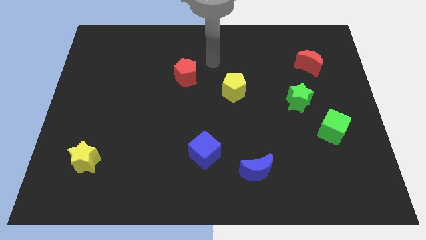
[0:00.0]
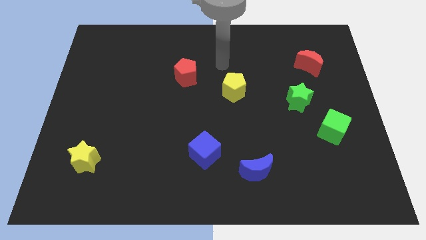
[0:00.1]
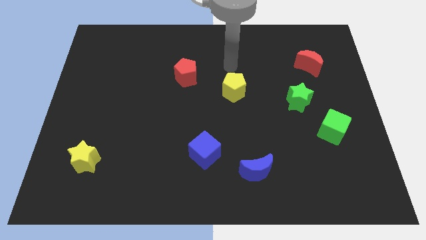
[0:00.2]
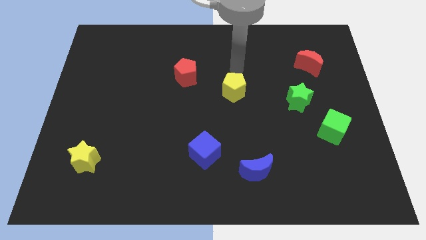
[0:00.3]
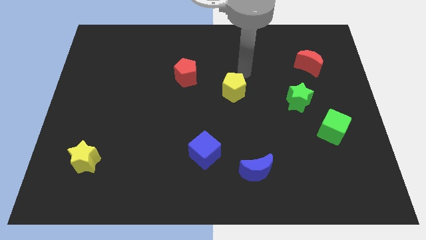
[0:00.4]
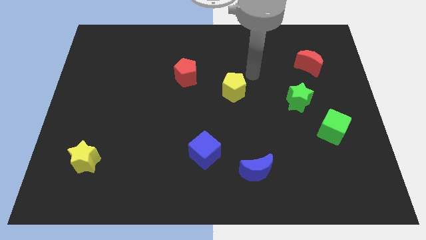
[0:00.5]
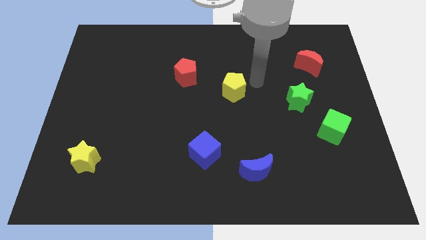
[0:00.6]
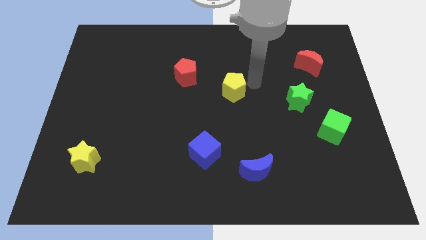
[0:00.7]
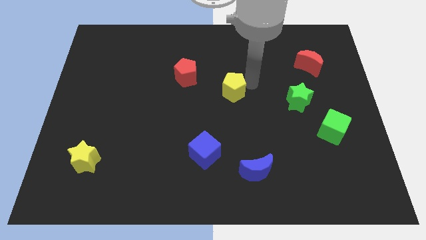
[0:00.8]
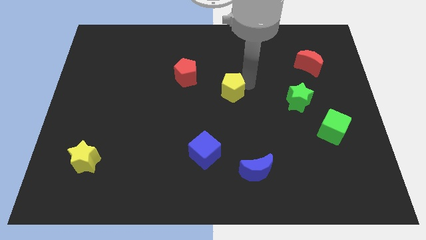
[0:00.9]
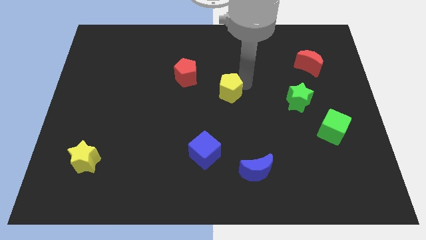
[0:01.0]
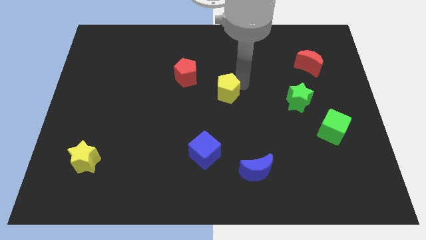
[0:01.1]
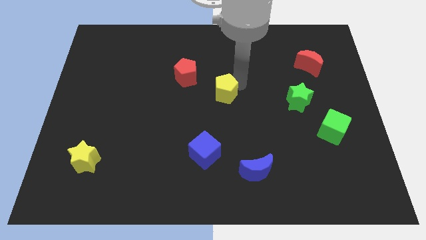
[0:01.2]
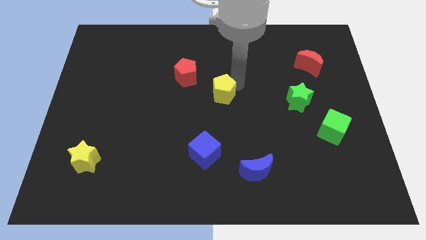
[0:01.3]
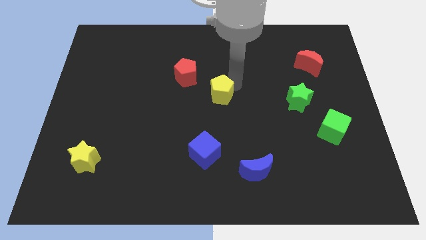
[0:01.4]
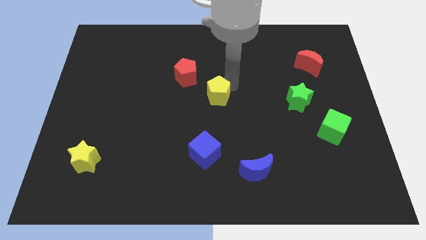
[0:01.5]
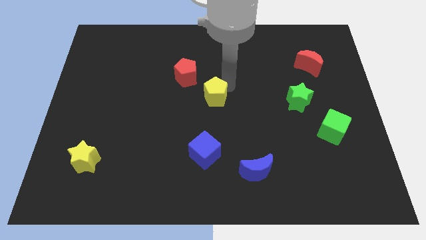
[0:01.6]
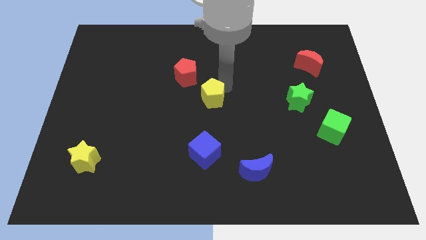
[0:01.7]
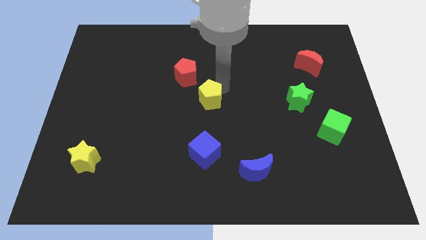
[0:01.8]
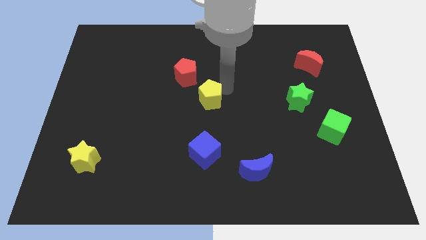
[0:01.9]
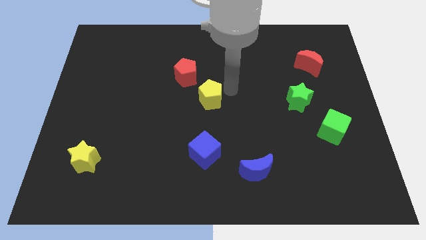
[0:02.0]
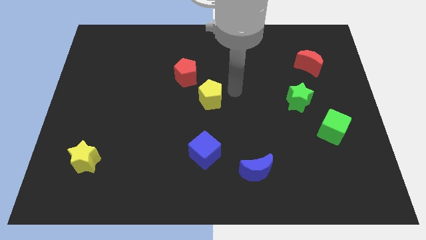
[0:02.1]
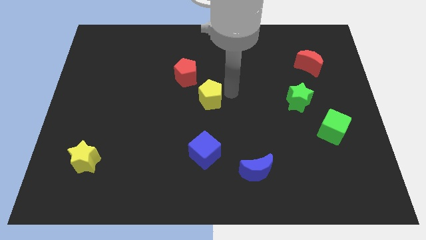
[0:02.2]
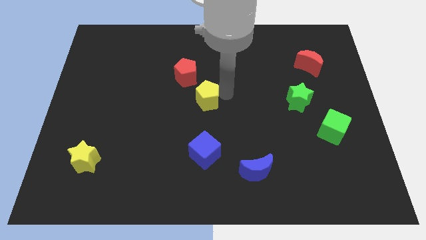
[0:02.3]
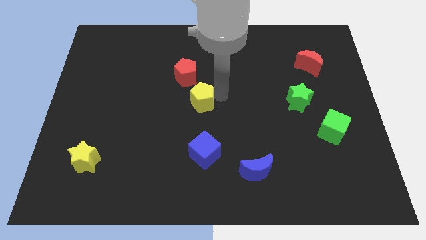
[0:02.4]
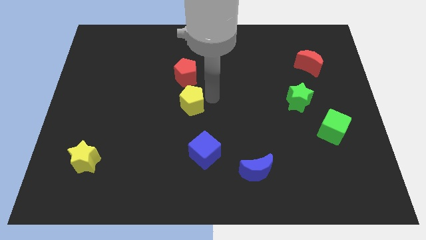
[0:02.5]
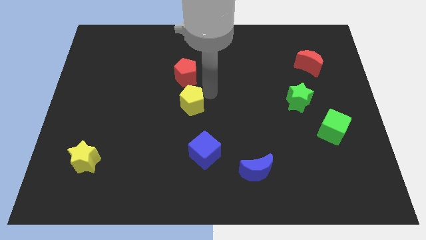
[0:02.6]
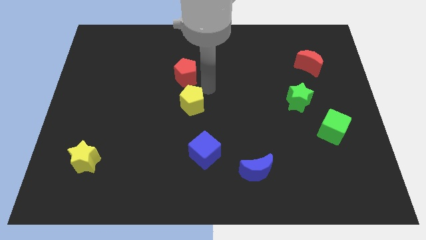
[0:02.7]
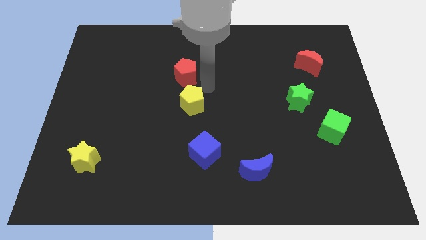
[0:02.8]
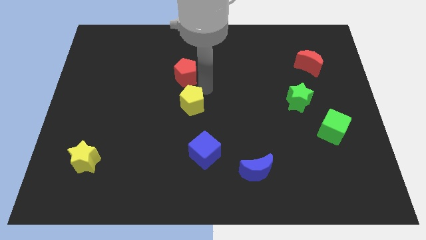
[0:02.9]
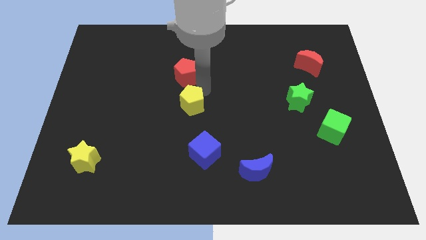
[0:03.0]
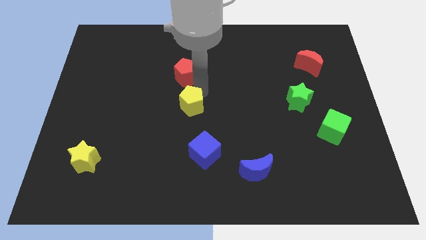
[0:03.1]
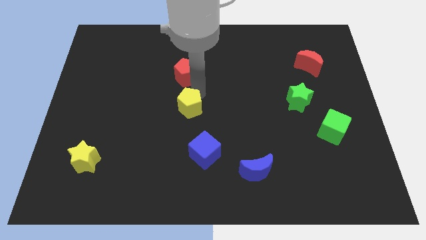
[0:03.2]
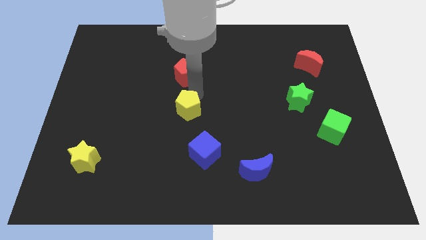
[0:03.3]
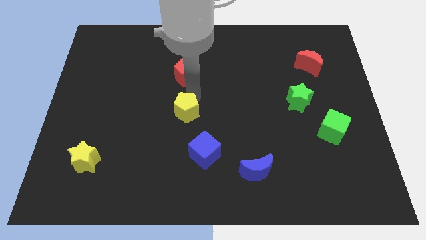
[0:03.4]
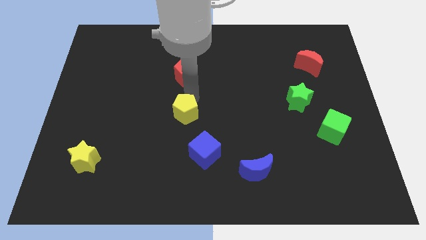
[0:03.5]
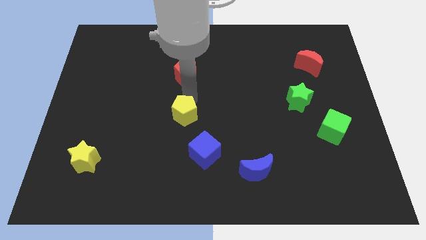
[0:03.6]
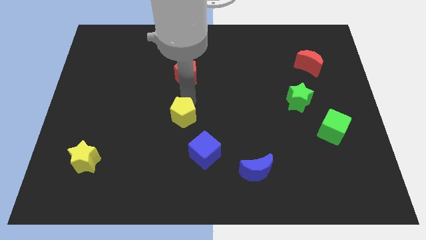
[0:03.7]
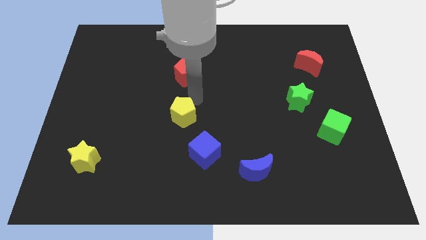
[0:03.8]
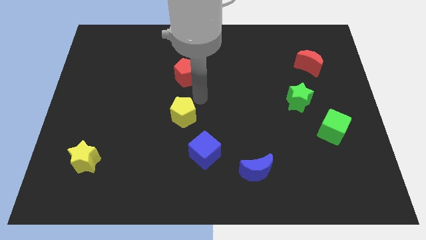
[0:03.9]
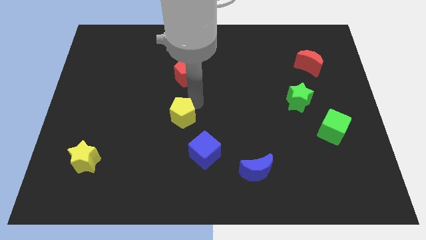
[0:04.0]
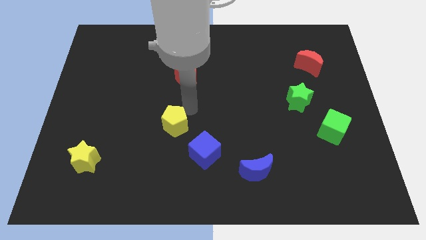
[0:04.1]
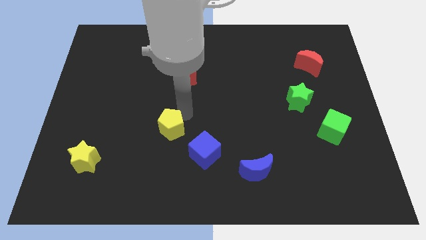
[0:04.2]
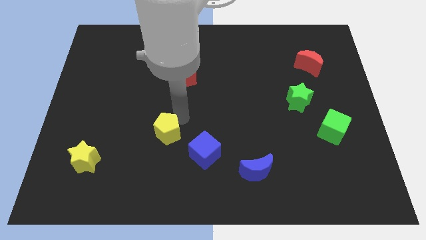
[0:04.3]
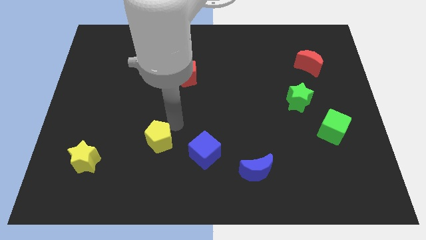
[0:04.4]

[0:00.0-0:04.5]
push the yellow pentagon downwards and left diagonally

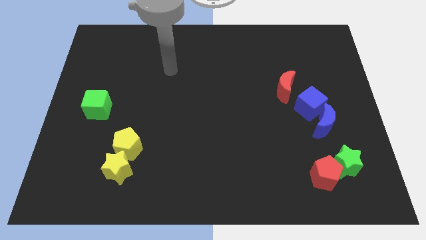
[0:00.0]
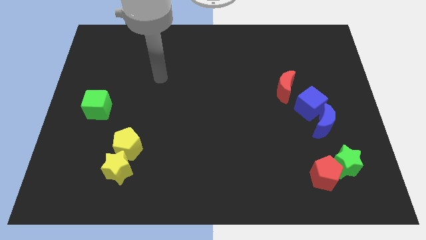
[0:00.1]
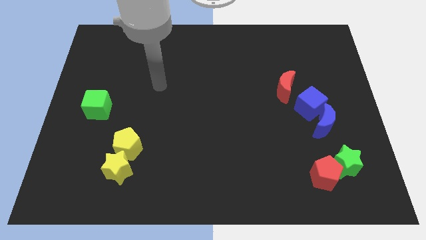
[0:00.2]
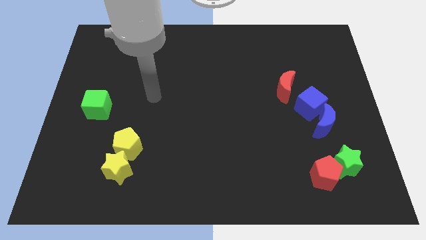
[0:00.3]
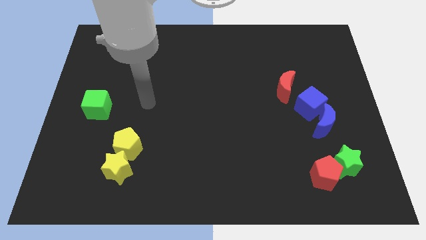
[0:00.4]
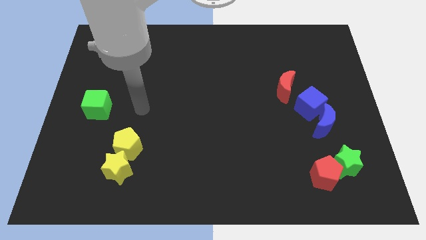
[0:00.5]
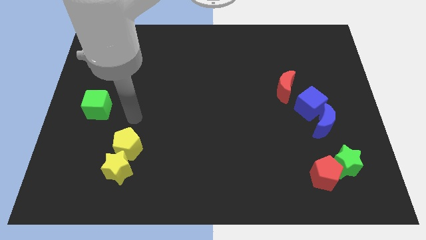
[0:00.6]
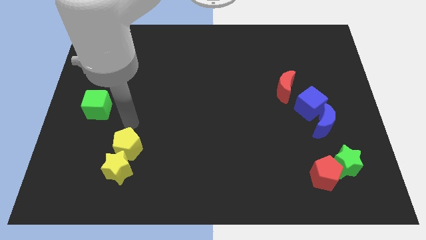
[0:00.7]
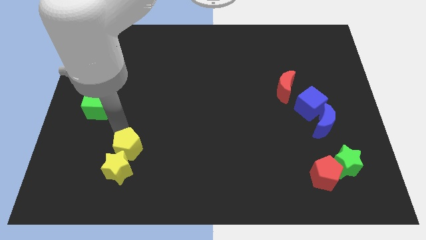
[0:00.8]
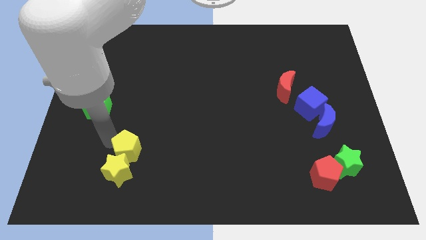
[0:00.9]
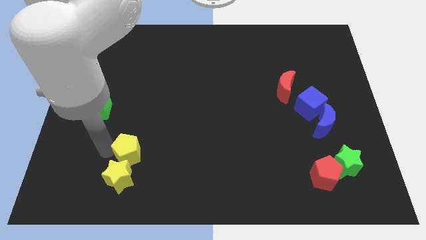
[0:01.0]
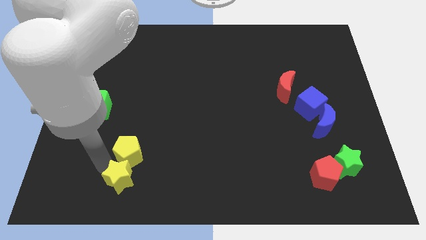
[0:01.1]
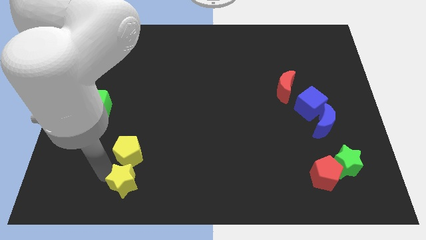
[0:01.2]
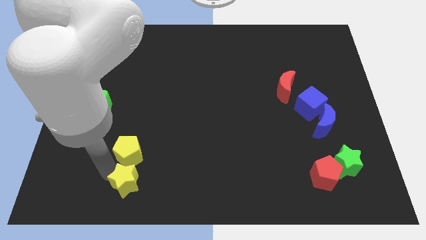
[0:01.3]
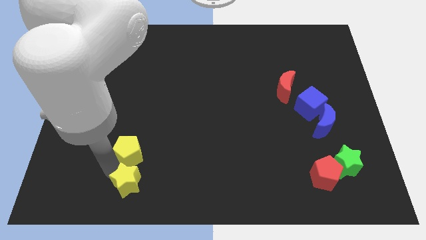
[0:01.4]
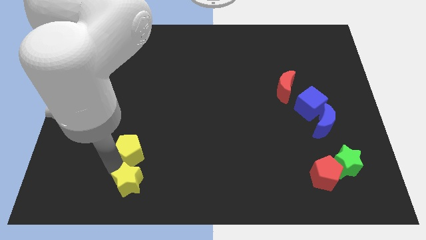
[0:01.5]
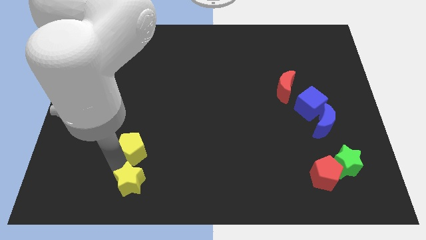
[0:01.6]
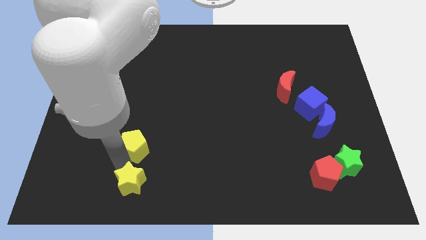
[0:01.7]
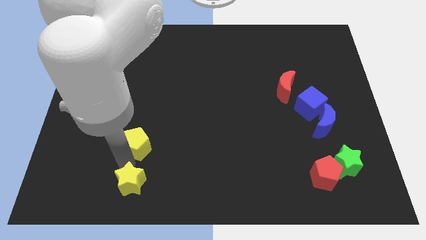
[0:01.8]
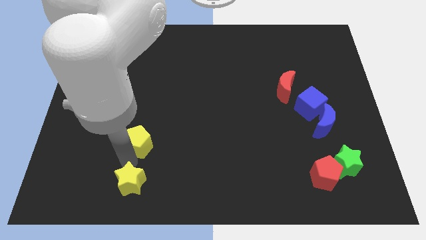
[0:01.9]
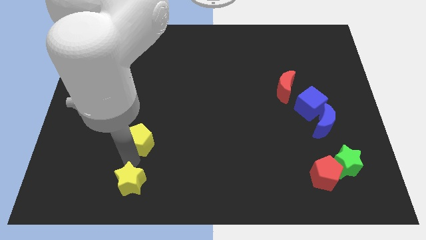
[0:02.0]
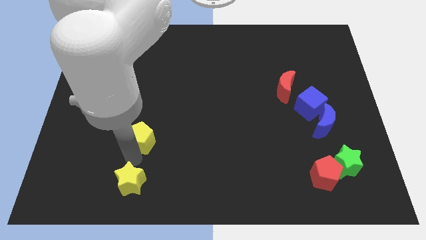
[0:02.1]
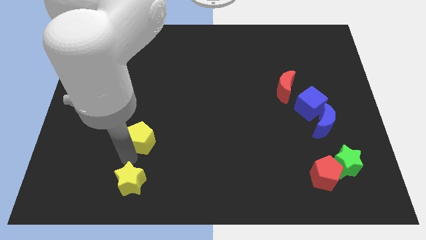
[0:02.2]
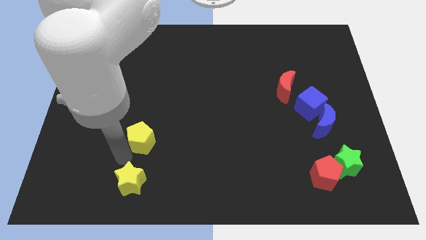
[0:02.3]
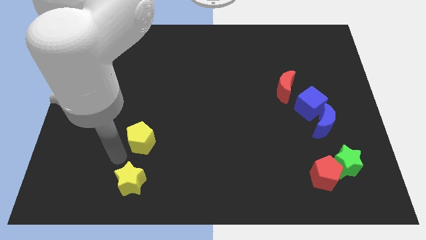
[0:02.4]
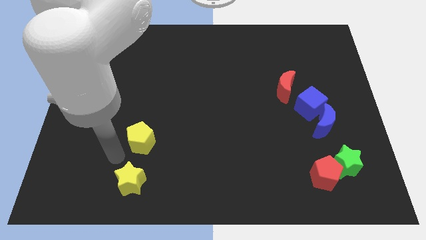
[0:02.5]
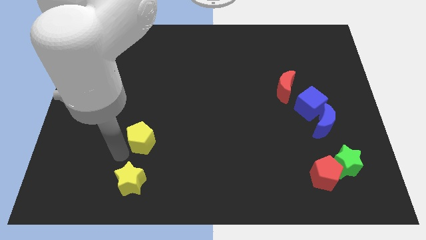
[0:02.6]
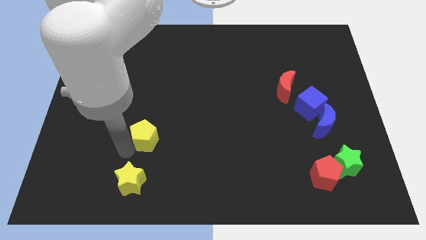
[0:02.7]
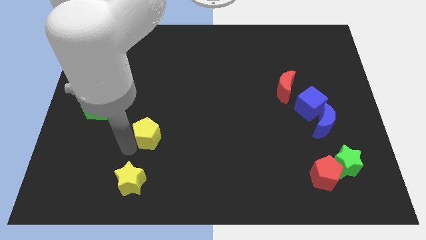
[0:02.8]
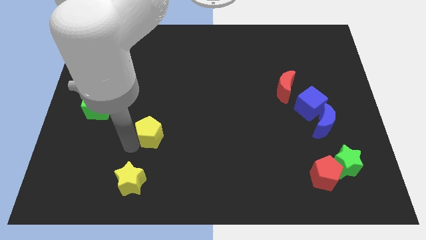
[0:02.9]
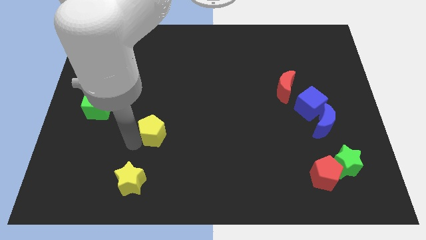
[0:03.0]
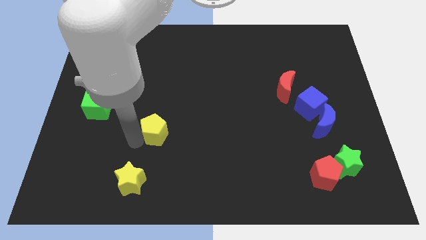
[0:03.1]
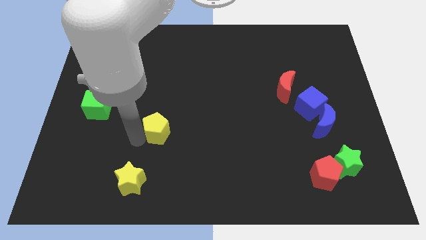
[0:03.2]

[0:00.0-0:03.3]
slightly push the yellow pentagon up and to the right
